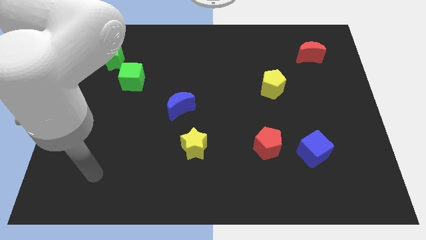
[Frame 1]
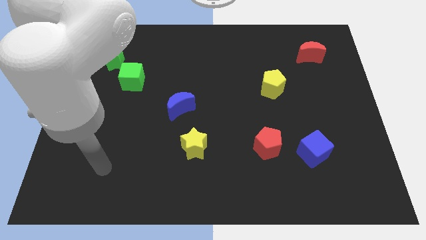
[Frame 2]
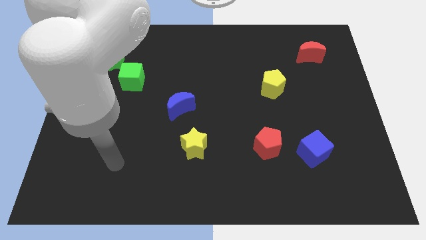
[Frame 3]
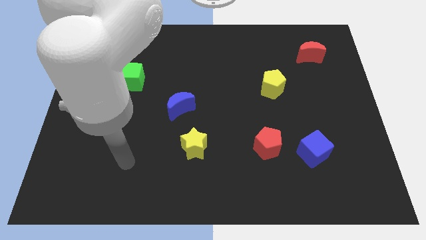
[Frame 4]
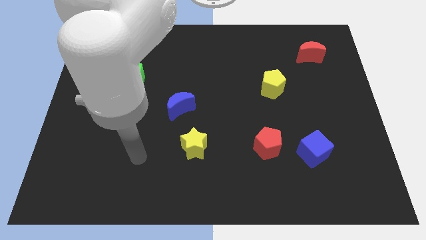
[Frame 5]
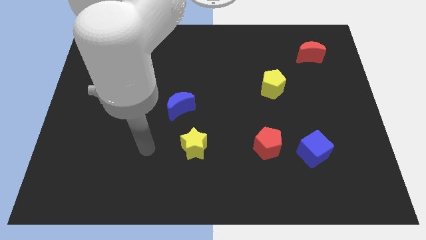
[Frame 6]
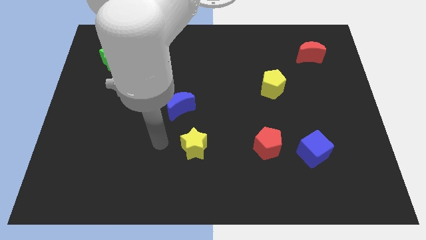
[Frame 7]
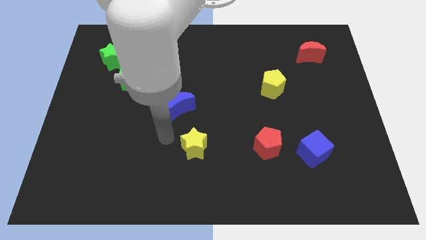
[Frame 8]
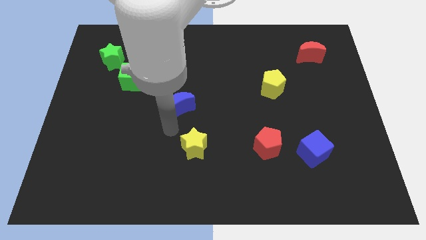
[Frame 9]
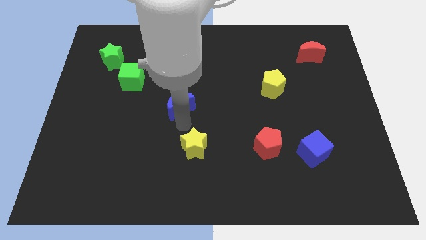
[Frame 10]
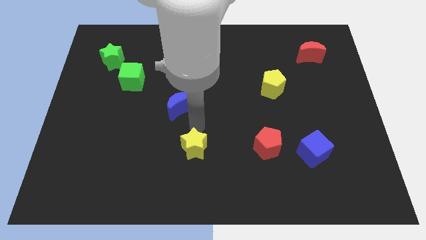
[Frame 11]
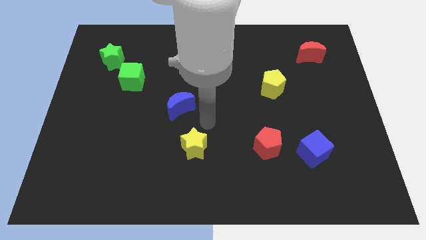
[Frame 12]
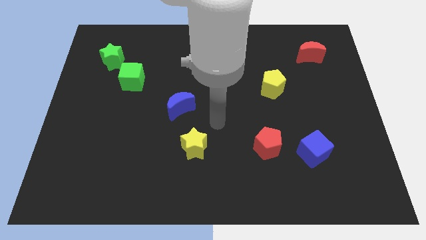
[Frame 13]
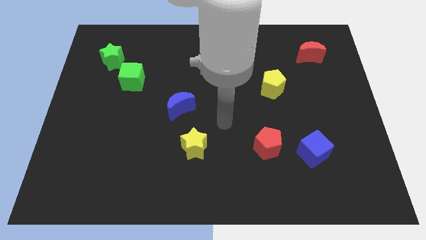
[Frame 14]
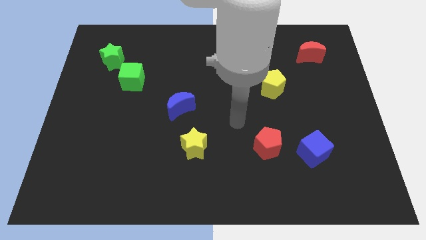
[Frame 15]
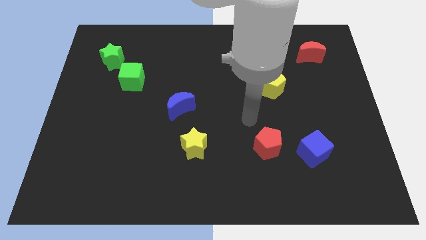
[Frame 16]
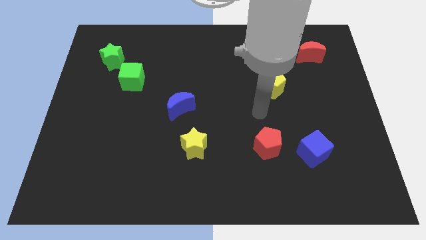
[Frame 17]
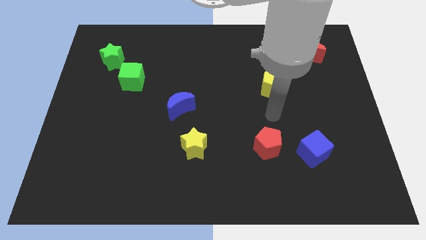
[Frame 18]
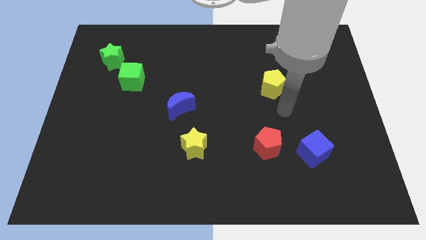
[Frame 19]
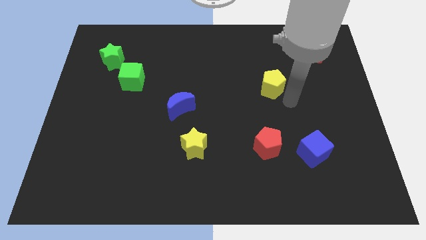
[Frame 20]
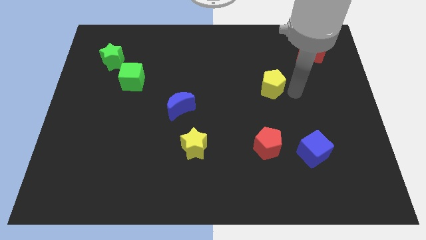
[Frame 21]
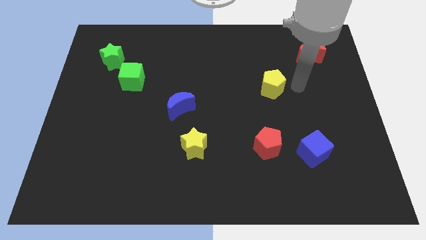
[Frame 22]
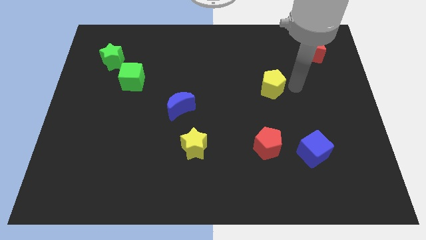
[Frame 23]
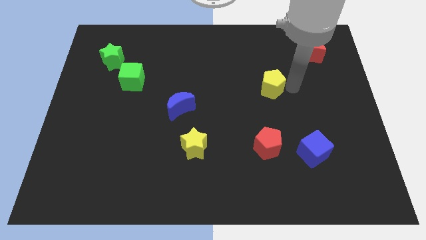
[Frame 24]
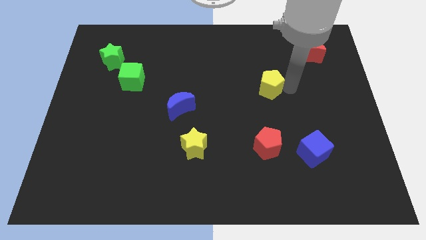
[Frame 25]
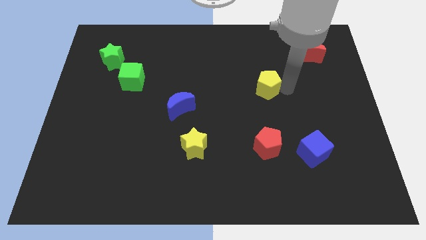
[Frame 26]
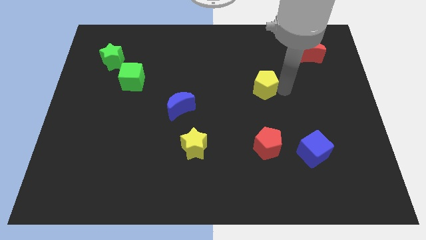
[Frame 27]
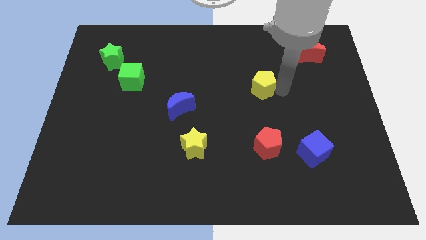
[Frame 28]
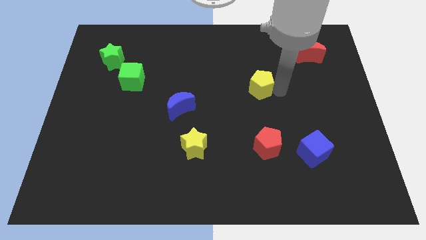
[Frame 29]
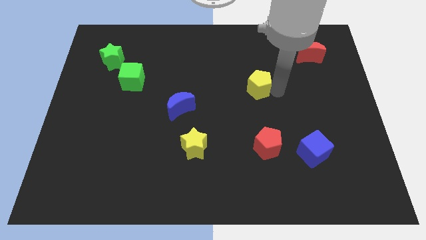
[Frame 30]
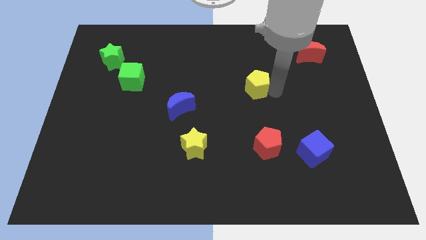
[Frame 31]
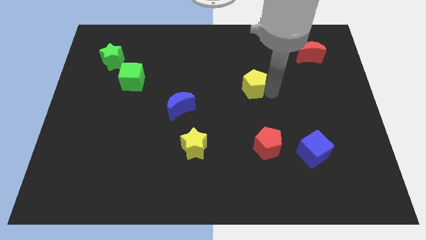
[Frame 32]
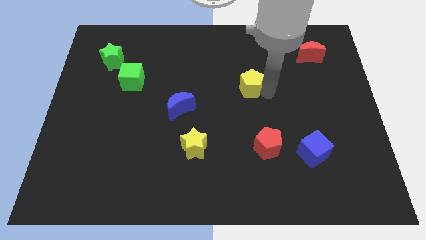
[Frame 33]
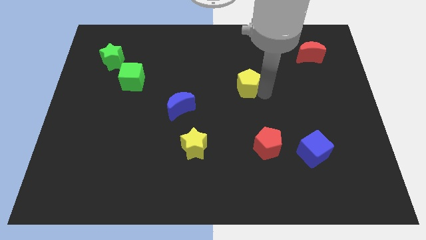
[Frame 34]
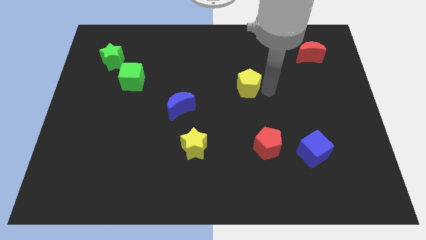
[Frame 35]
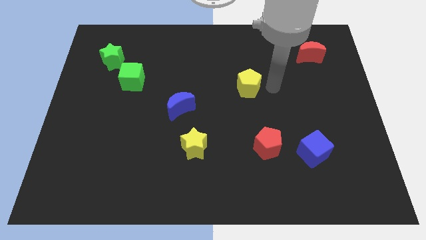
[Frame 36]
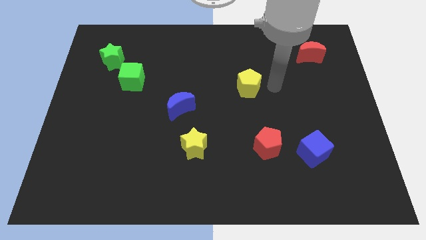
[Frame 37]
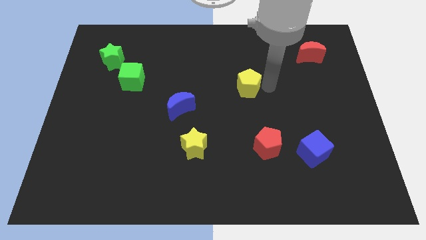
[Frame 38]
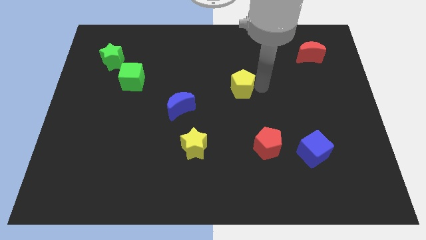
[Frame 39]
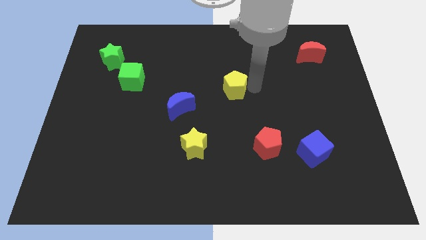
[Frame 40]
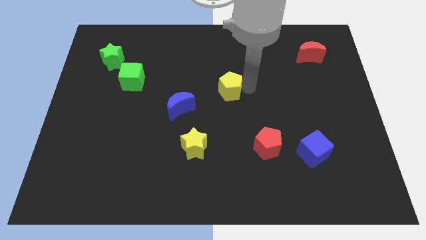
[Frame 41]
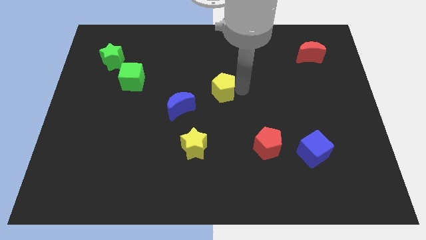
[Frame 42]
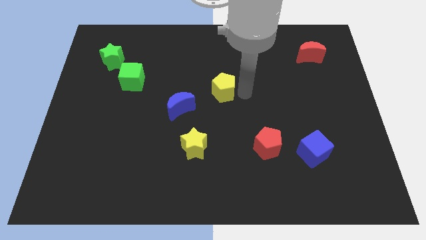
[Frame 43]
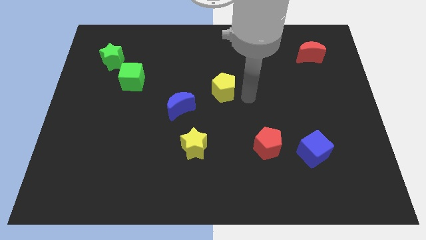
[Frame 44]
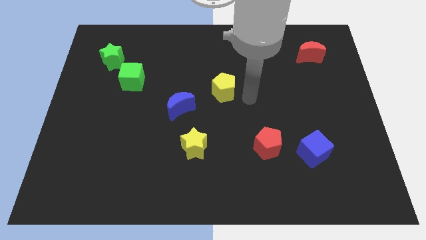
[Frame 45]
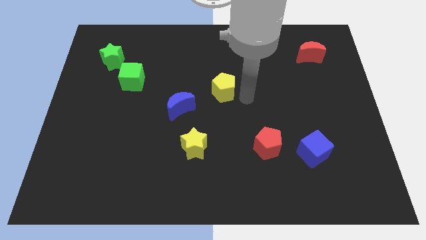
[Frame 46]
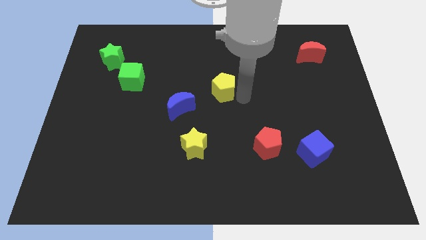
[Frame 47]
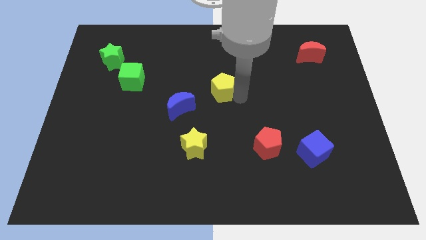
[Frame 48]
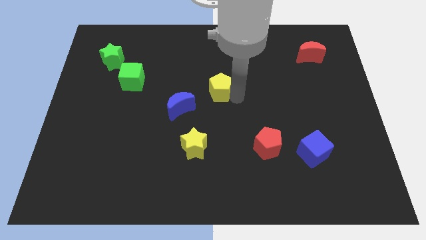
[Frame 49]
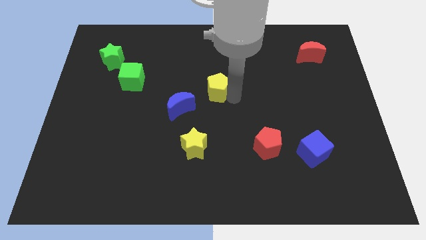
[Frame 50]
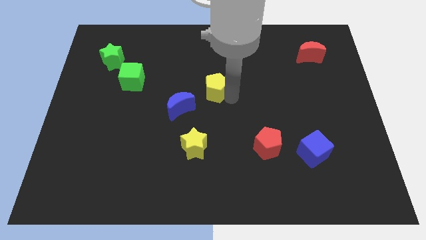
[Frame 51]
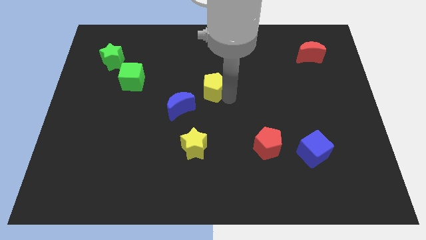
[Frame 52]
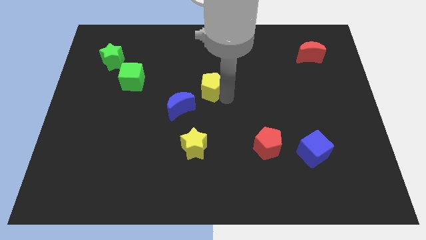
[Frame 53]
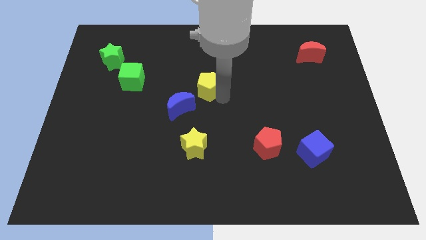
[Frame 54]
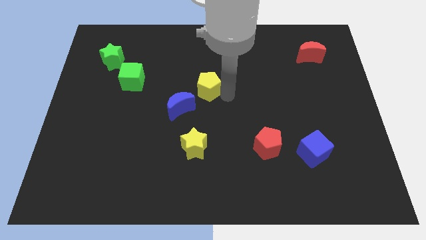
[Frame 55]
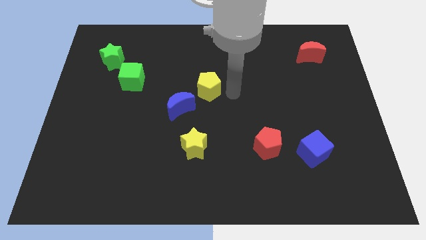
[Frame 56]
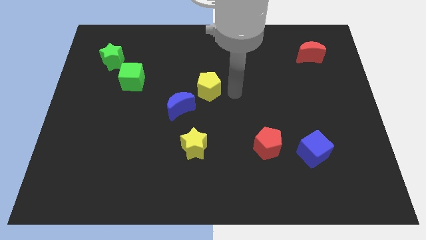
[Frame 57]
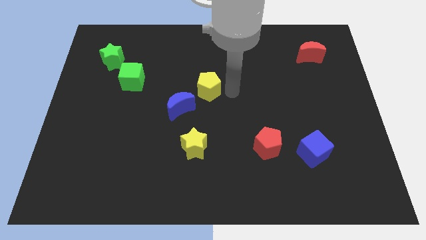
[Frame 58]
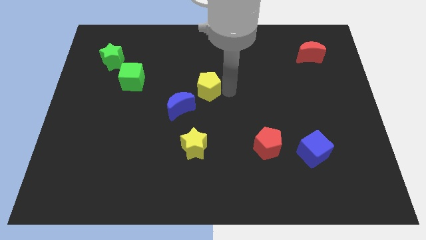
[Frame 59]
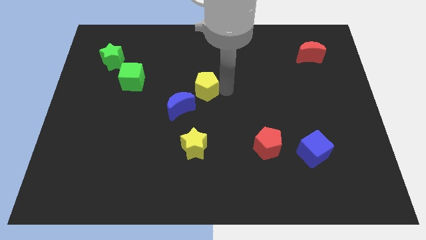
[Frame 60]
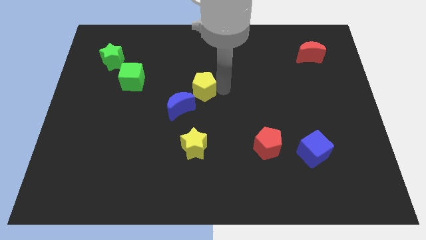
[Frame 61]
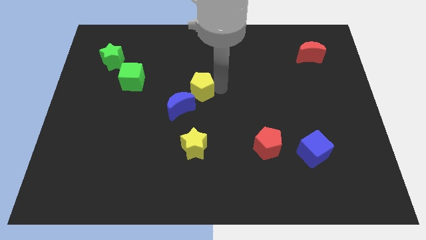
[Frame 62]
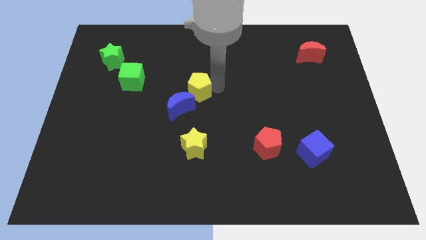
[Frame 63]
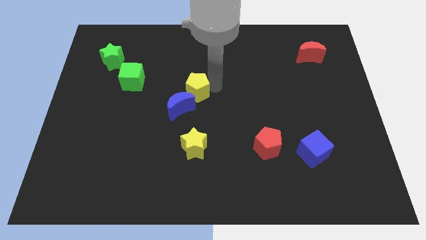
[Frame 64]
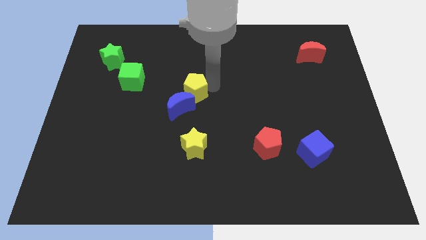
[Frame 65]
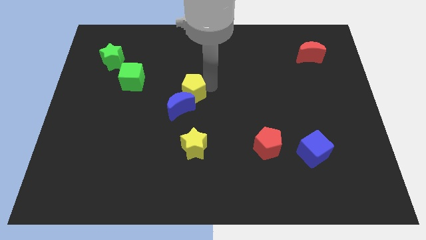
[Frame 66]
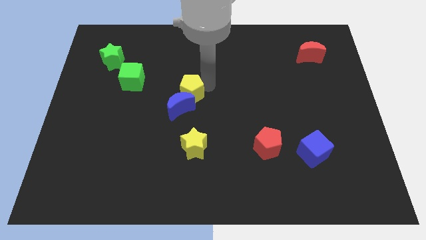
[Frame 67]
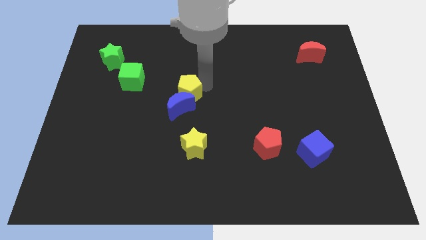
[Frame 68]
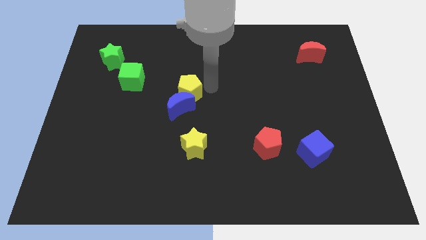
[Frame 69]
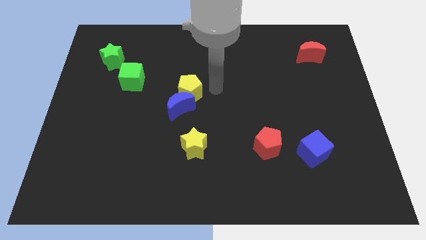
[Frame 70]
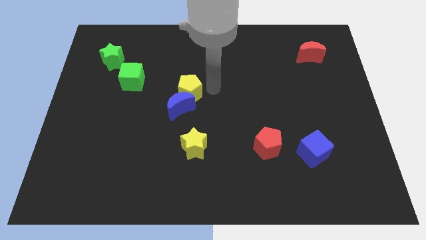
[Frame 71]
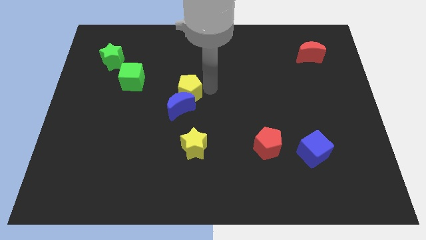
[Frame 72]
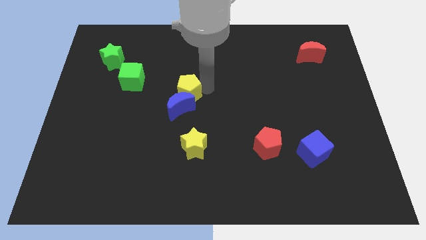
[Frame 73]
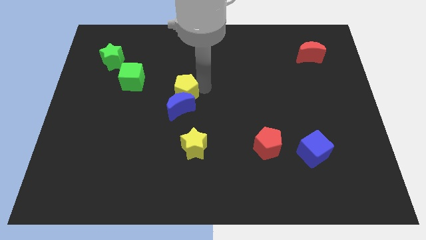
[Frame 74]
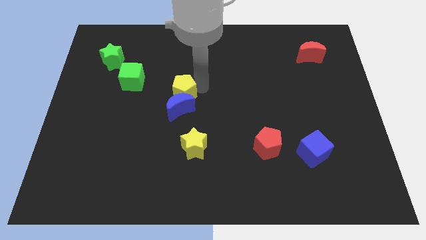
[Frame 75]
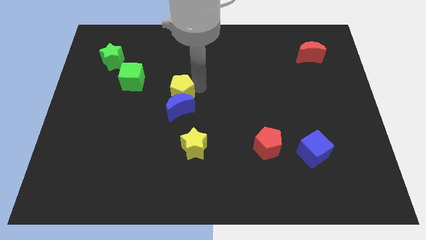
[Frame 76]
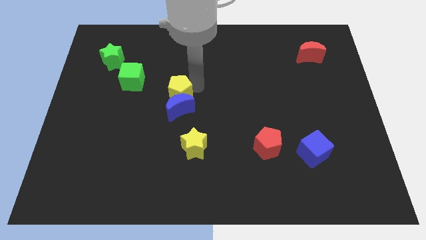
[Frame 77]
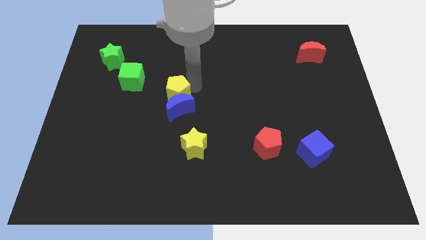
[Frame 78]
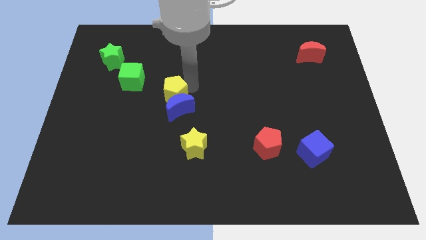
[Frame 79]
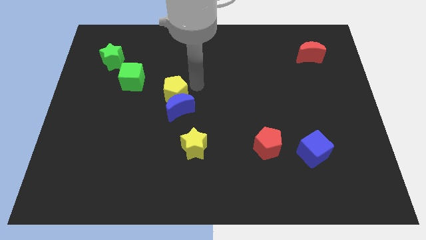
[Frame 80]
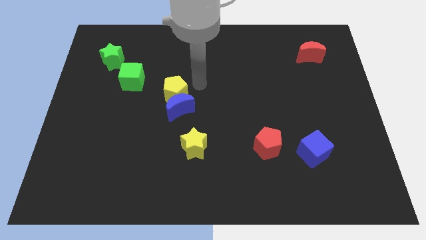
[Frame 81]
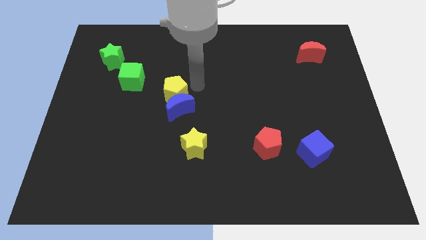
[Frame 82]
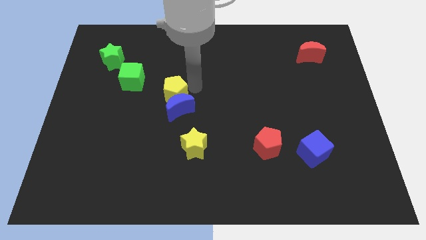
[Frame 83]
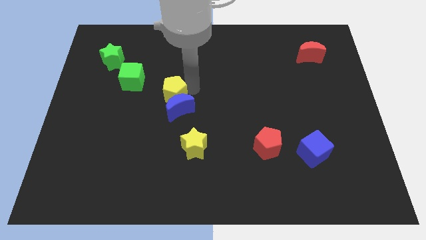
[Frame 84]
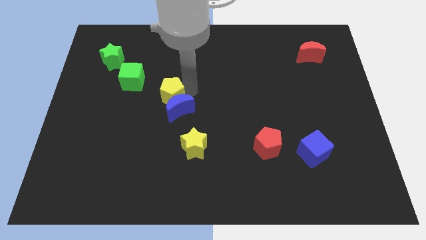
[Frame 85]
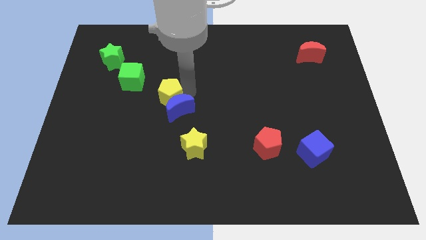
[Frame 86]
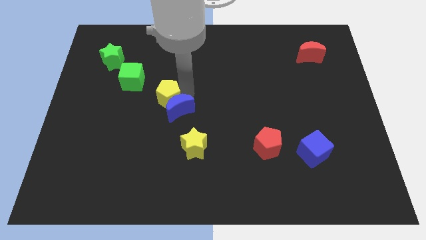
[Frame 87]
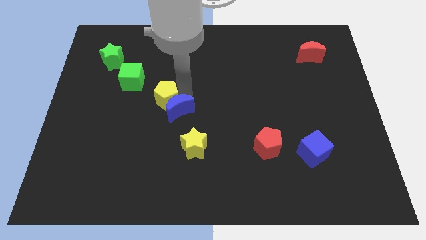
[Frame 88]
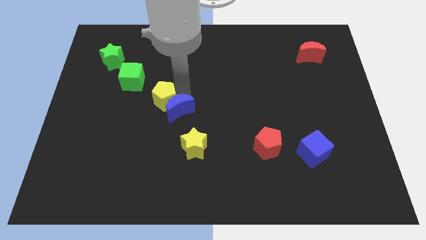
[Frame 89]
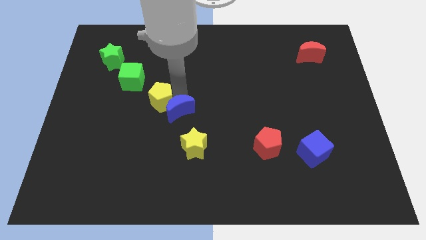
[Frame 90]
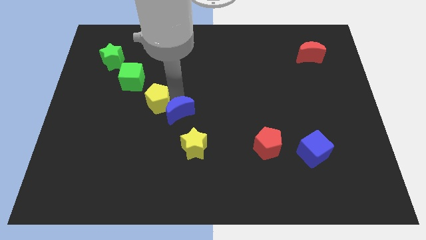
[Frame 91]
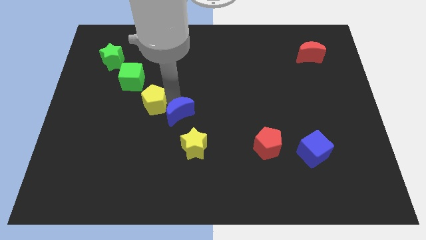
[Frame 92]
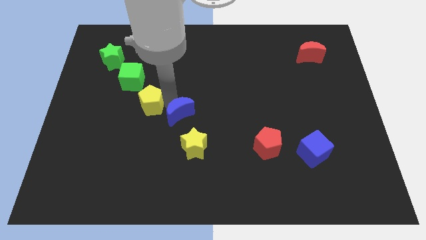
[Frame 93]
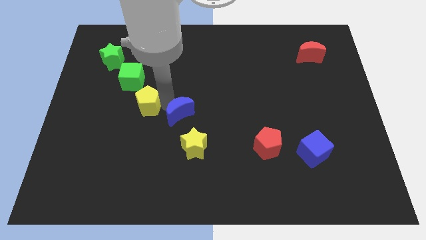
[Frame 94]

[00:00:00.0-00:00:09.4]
slide the yellow pentagon to the bottom side of the green cube
